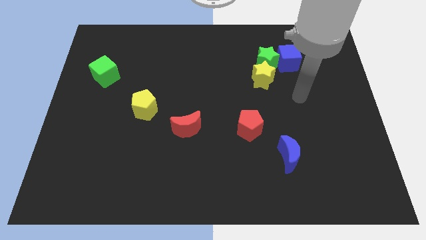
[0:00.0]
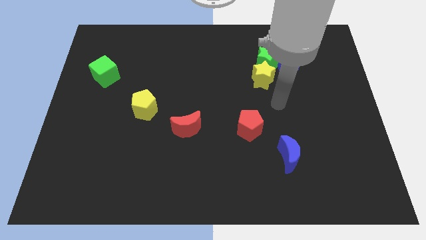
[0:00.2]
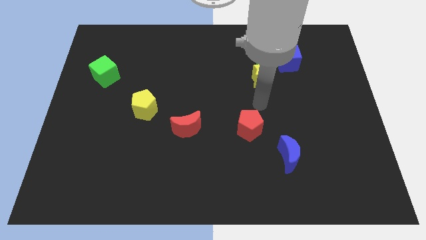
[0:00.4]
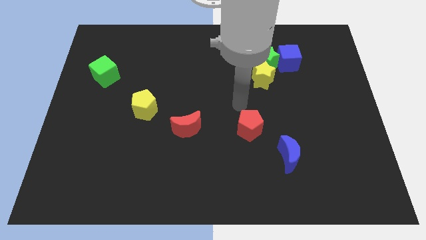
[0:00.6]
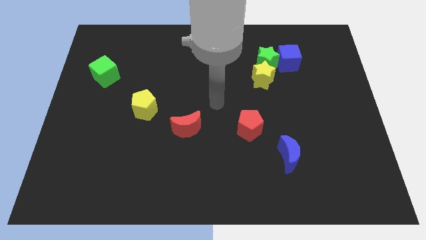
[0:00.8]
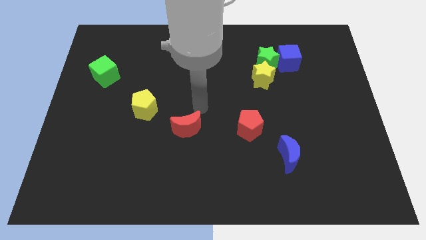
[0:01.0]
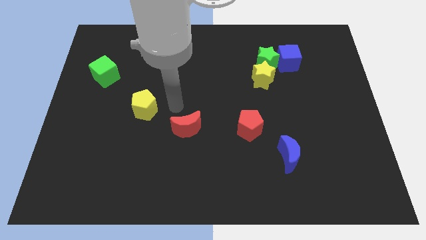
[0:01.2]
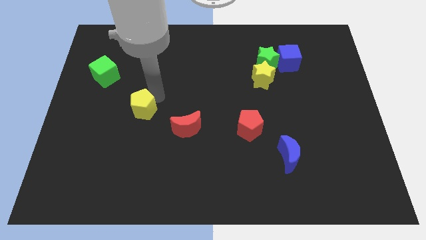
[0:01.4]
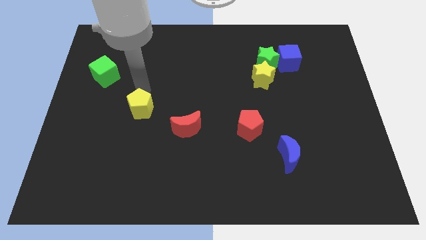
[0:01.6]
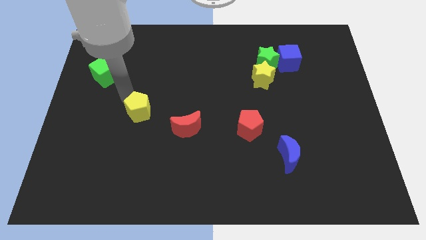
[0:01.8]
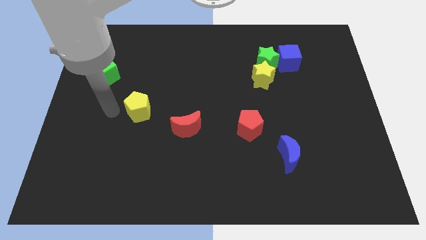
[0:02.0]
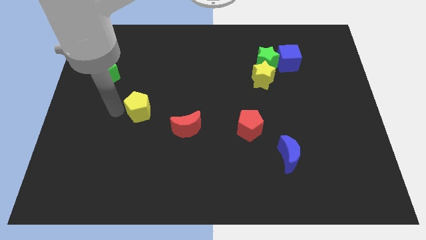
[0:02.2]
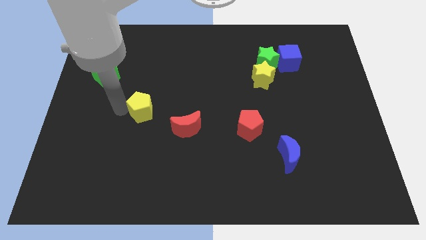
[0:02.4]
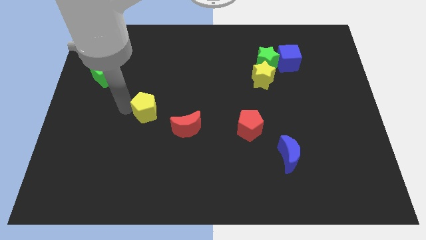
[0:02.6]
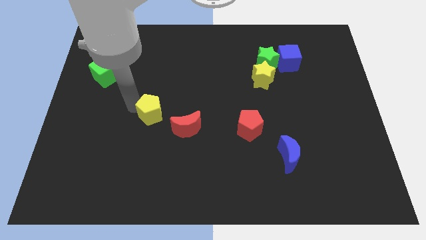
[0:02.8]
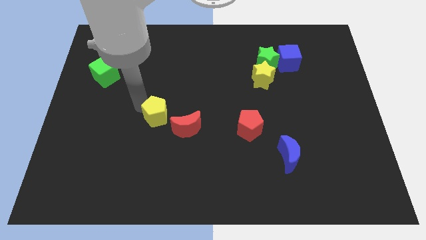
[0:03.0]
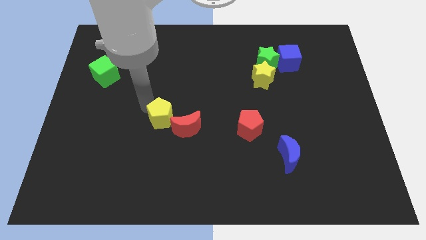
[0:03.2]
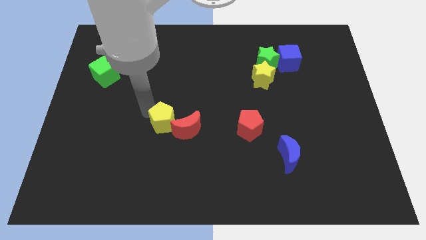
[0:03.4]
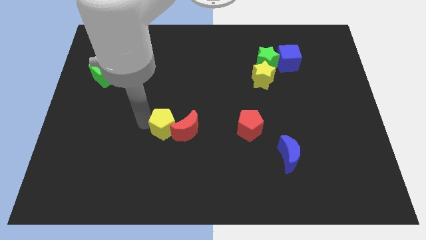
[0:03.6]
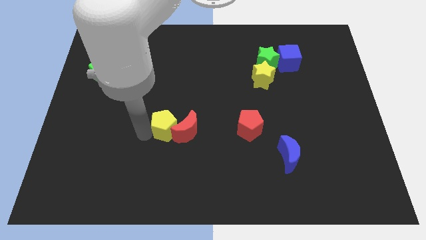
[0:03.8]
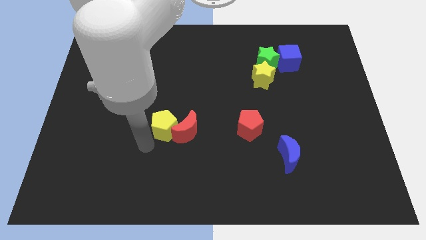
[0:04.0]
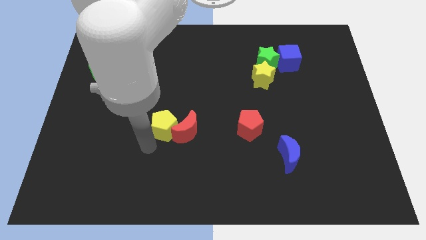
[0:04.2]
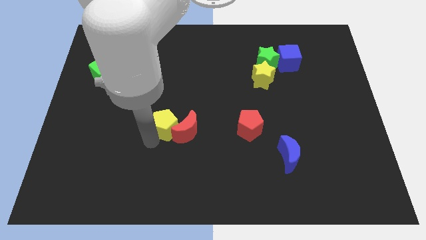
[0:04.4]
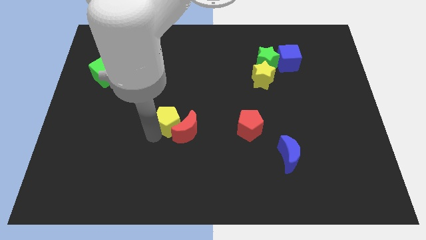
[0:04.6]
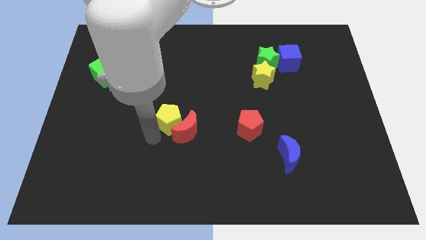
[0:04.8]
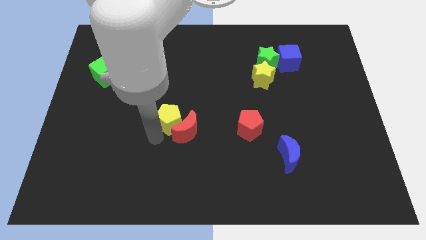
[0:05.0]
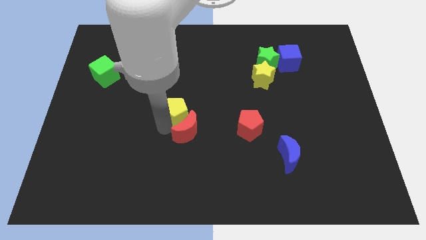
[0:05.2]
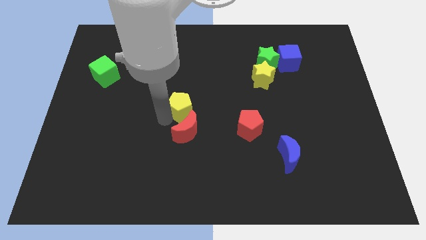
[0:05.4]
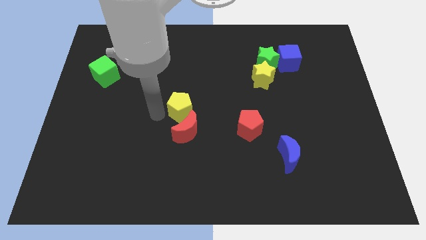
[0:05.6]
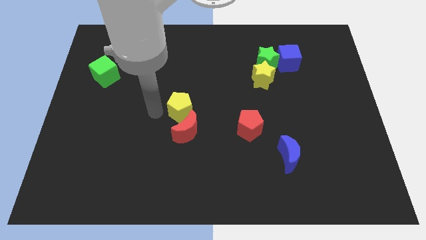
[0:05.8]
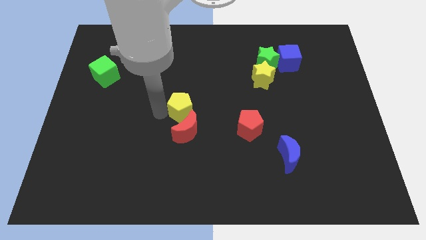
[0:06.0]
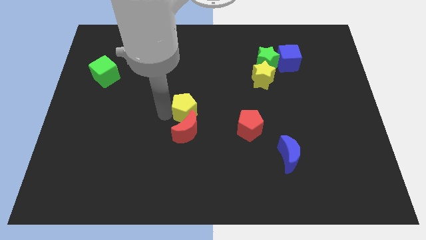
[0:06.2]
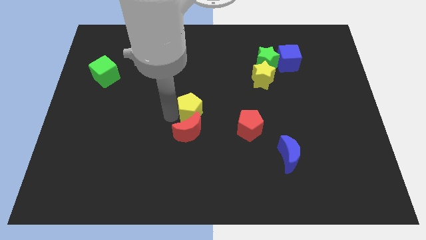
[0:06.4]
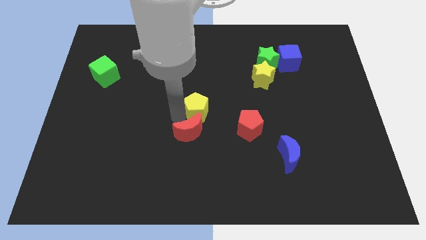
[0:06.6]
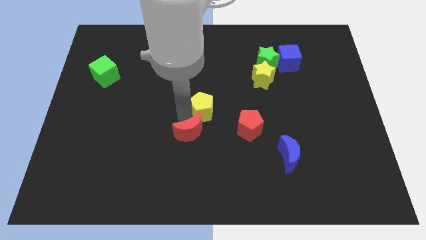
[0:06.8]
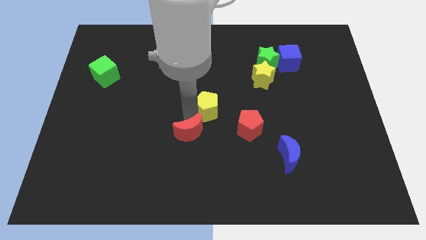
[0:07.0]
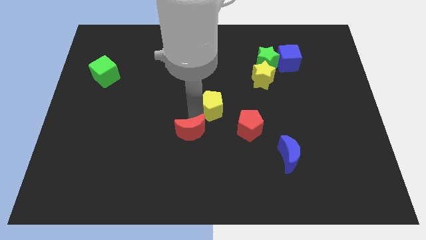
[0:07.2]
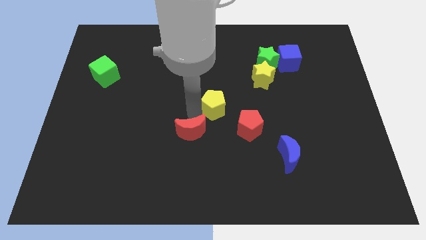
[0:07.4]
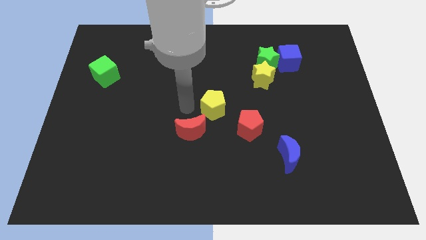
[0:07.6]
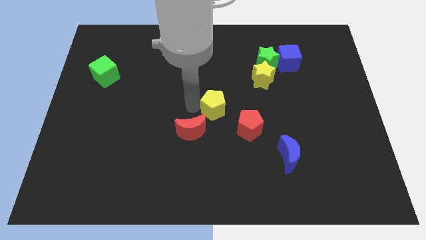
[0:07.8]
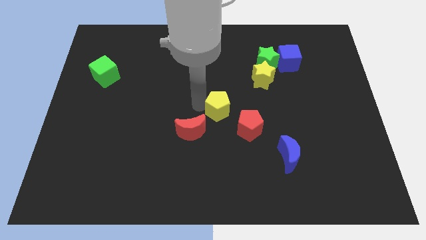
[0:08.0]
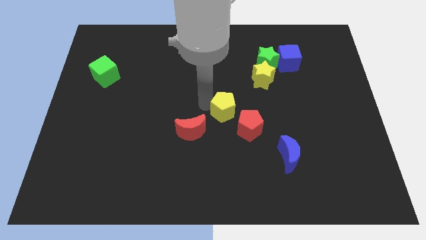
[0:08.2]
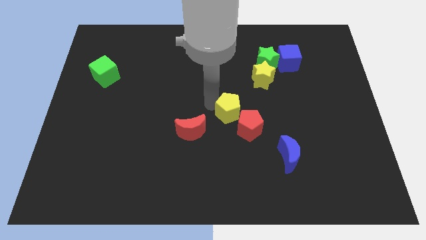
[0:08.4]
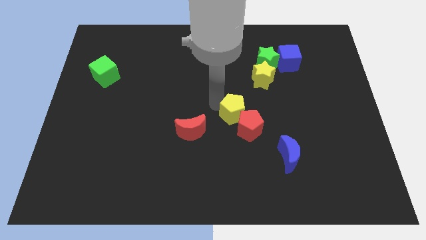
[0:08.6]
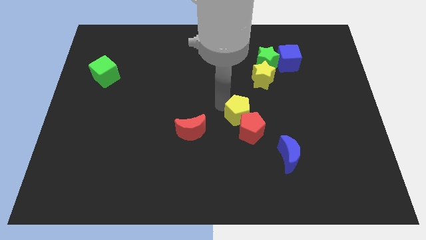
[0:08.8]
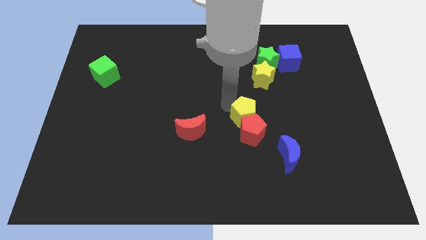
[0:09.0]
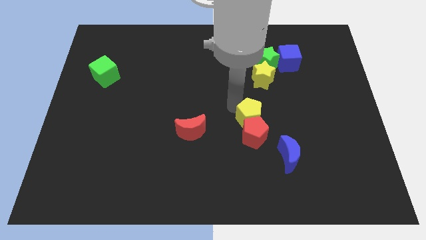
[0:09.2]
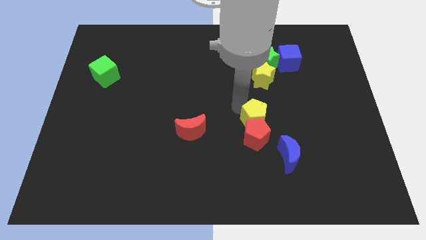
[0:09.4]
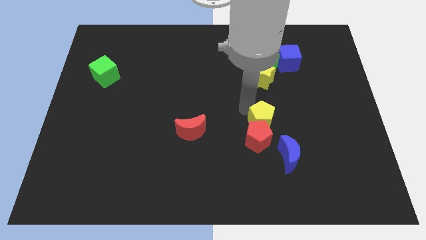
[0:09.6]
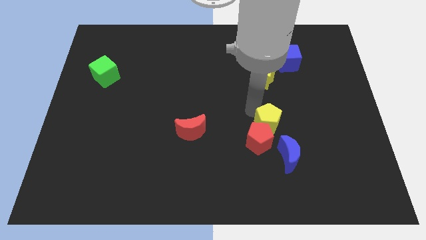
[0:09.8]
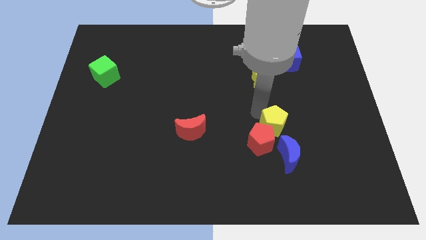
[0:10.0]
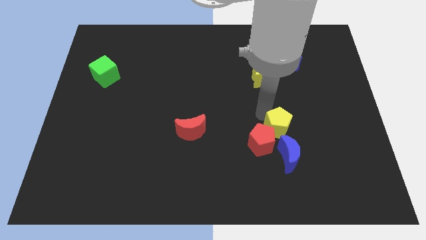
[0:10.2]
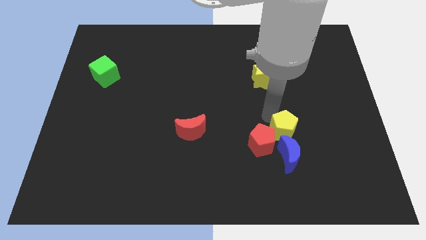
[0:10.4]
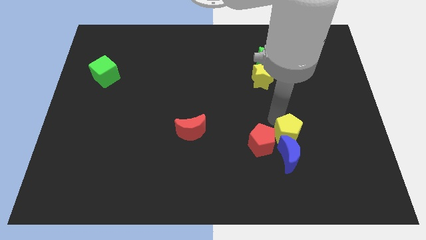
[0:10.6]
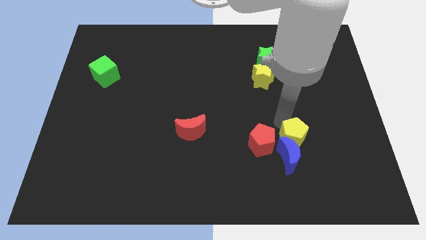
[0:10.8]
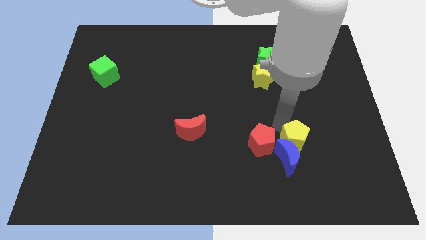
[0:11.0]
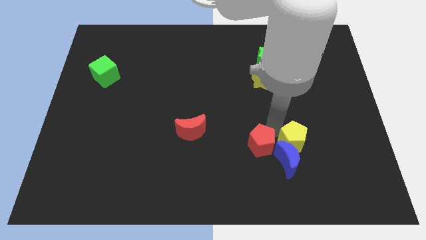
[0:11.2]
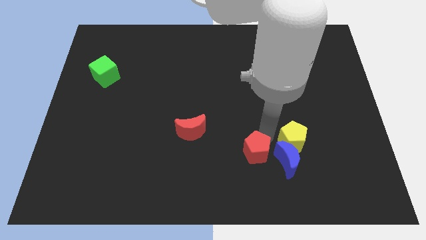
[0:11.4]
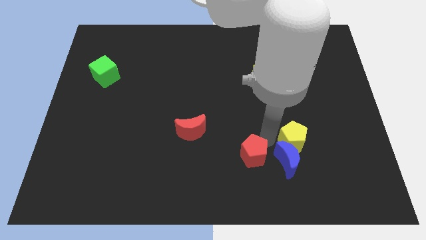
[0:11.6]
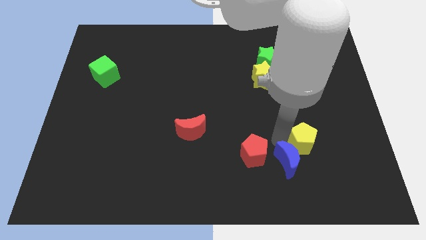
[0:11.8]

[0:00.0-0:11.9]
move the yellow pentagon right of the blue moon
